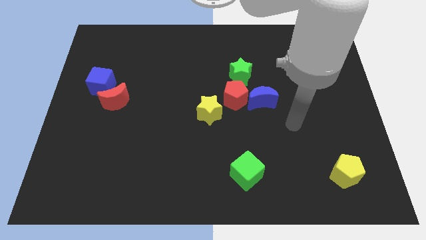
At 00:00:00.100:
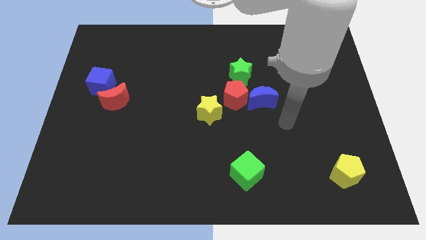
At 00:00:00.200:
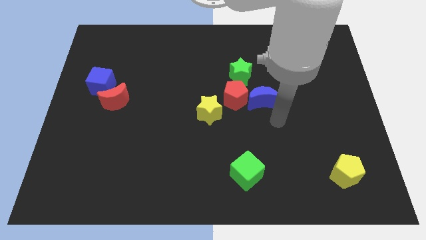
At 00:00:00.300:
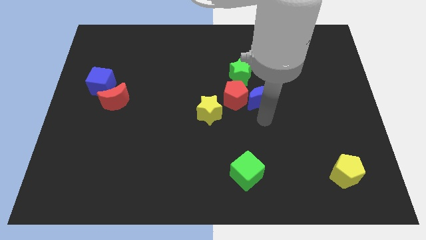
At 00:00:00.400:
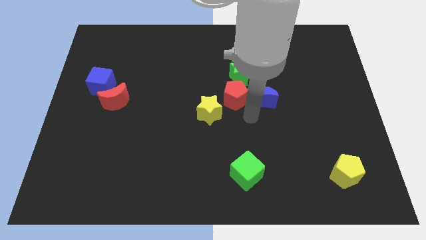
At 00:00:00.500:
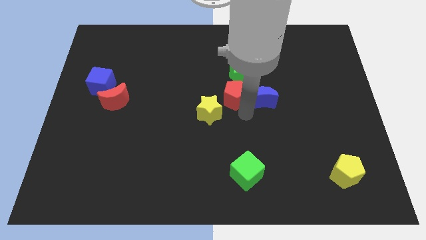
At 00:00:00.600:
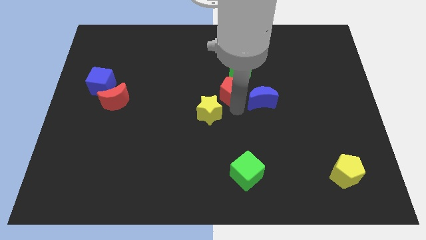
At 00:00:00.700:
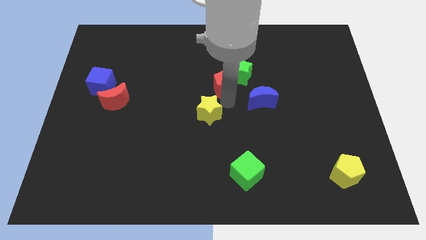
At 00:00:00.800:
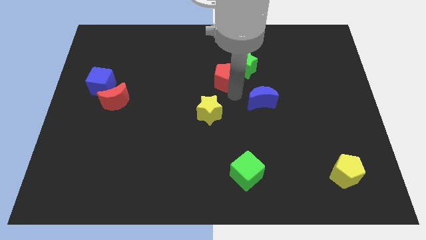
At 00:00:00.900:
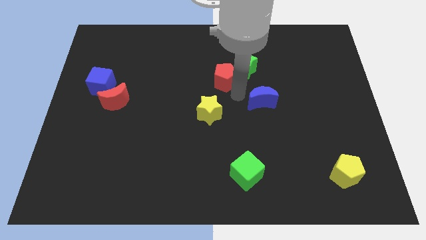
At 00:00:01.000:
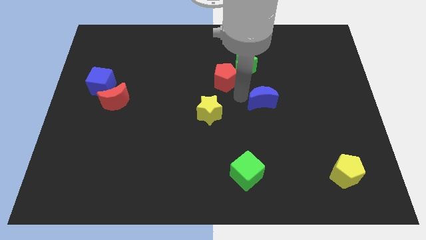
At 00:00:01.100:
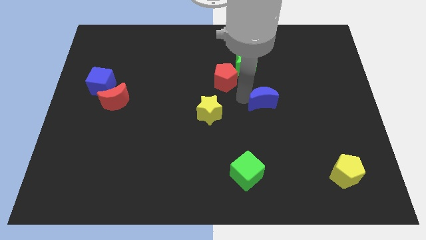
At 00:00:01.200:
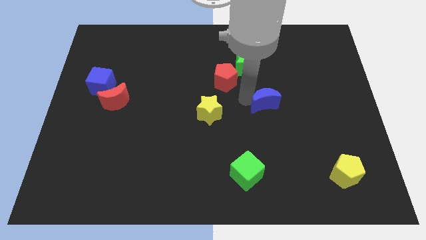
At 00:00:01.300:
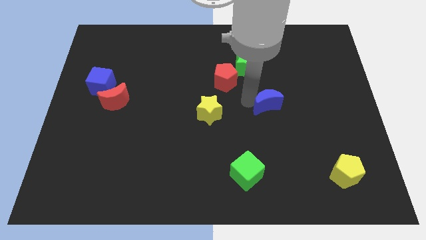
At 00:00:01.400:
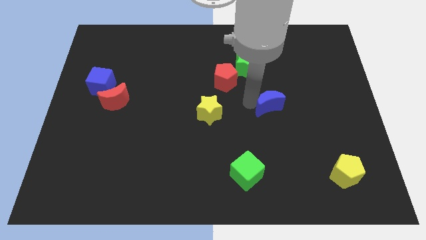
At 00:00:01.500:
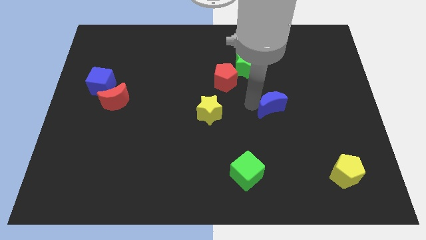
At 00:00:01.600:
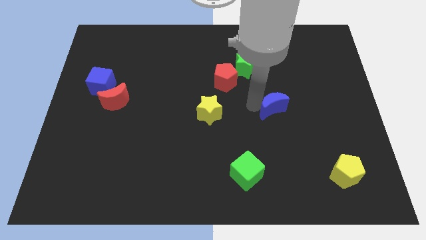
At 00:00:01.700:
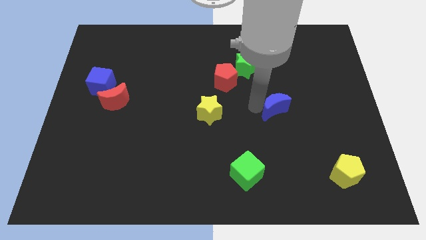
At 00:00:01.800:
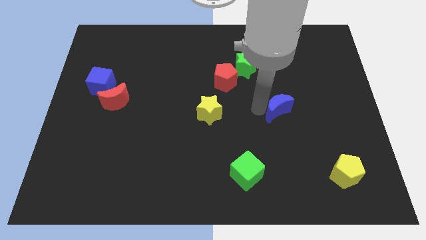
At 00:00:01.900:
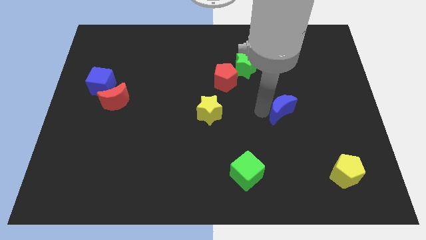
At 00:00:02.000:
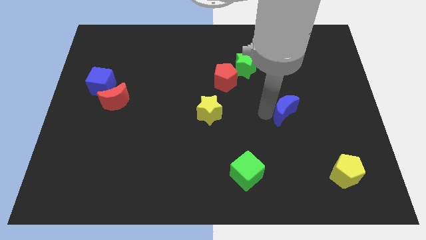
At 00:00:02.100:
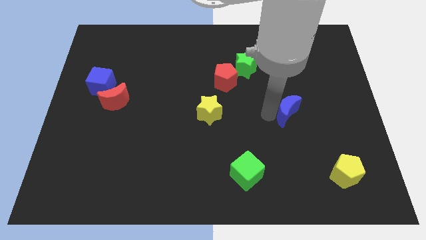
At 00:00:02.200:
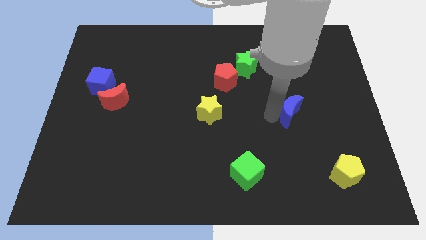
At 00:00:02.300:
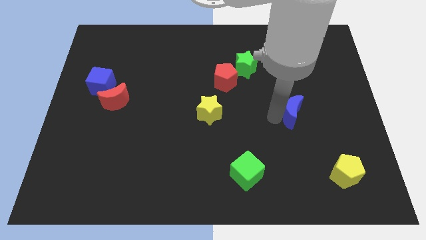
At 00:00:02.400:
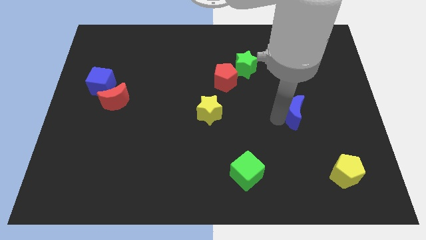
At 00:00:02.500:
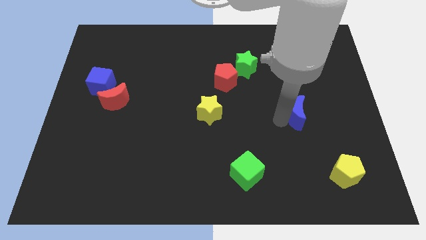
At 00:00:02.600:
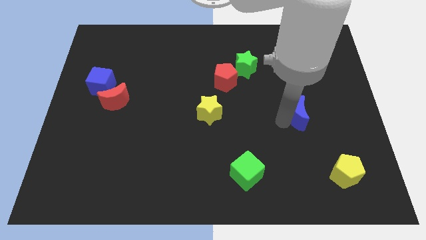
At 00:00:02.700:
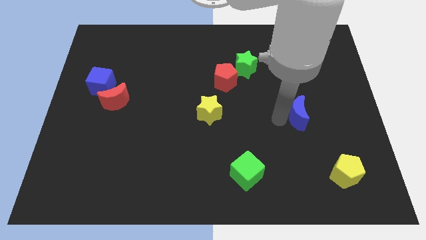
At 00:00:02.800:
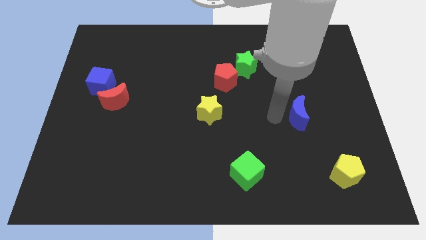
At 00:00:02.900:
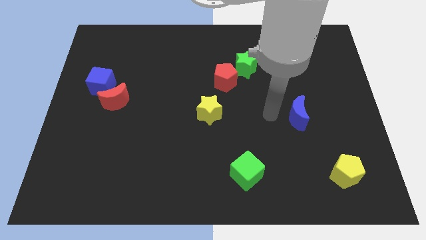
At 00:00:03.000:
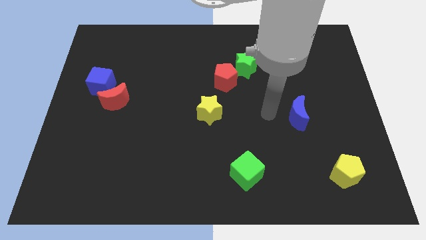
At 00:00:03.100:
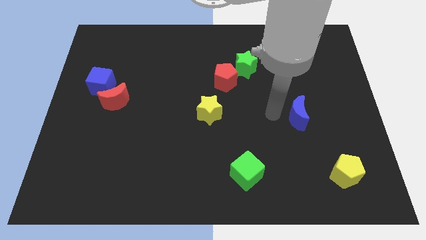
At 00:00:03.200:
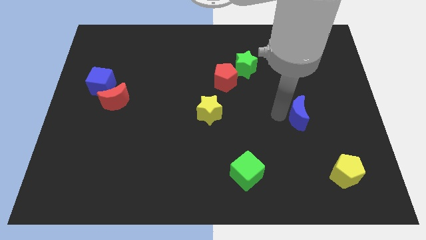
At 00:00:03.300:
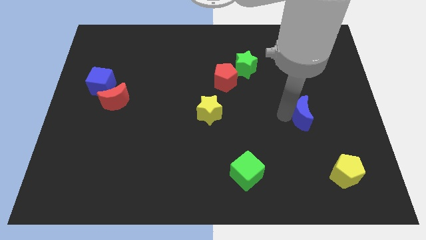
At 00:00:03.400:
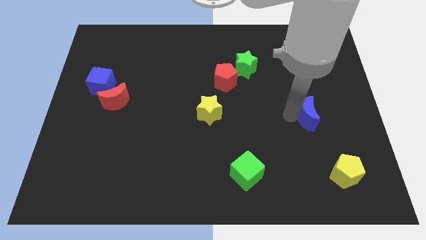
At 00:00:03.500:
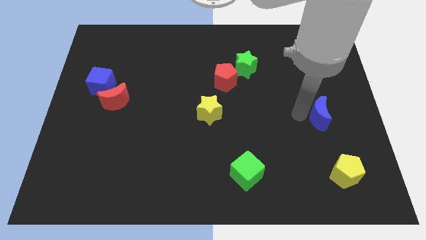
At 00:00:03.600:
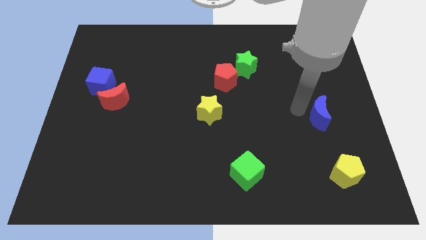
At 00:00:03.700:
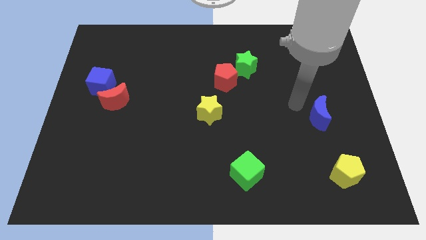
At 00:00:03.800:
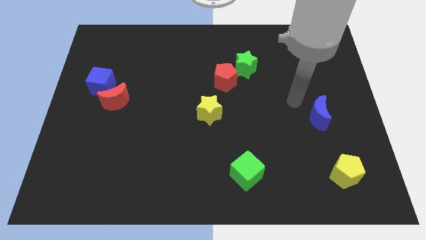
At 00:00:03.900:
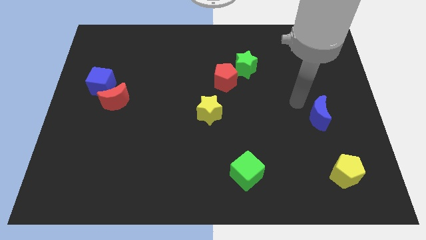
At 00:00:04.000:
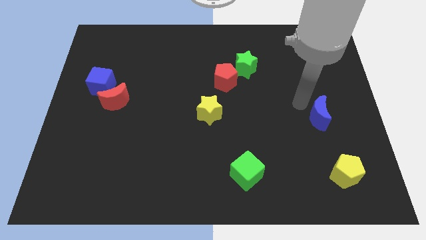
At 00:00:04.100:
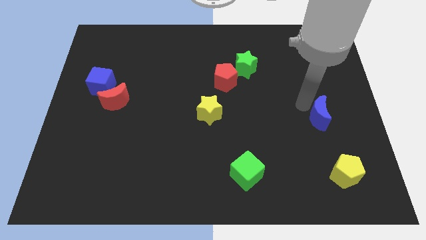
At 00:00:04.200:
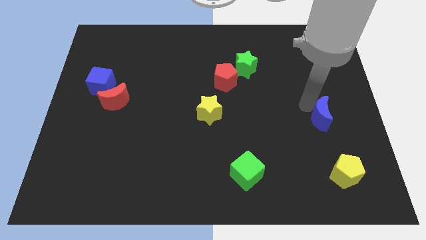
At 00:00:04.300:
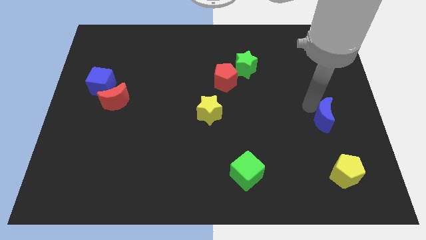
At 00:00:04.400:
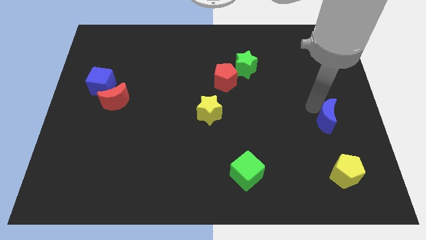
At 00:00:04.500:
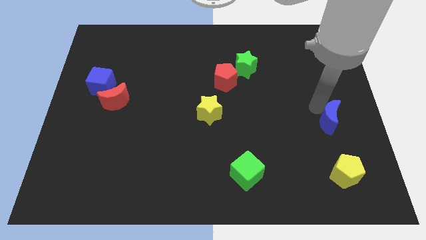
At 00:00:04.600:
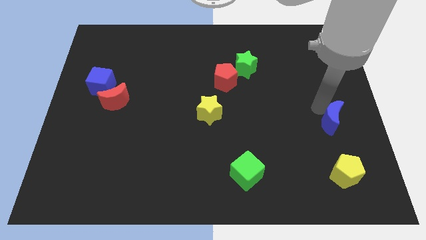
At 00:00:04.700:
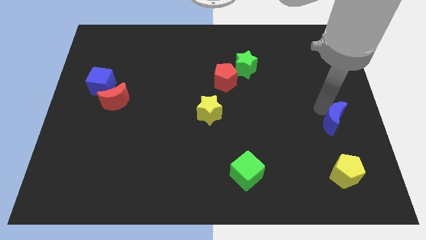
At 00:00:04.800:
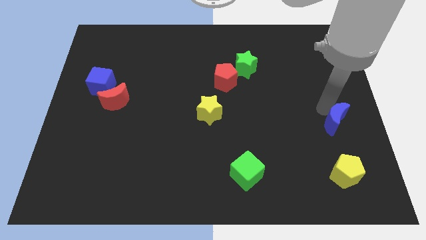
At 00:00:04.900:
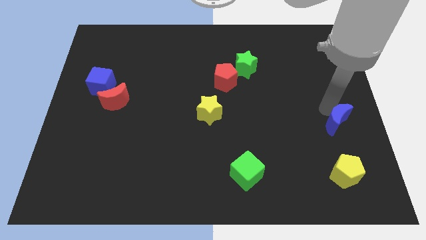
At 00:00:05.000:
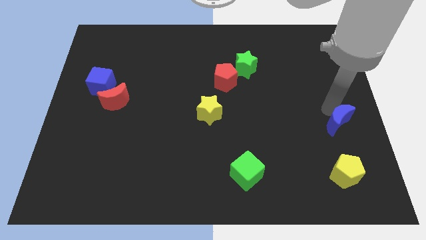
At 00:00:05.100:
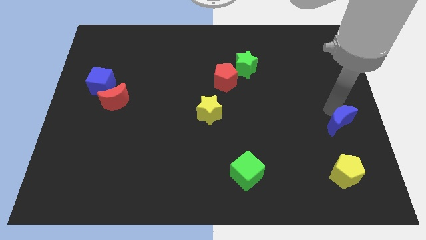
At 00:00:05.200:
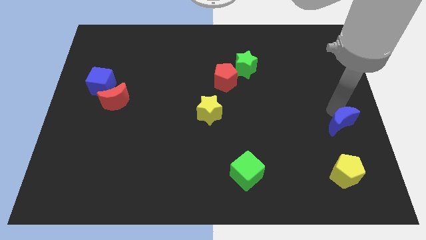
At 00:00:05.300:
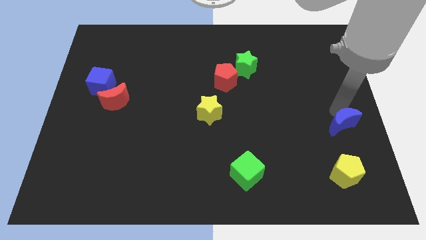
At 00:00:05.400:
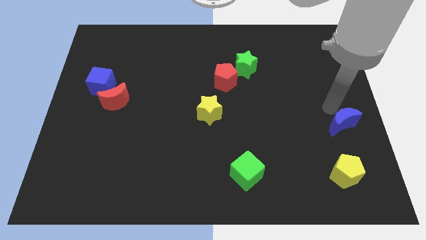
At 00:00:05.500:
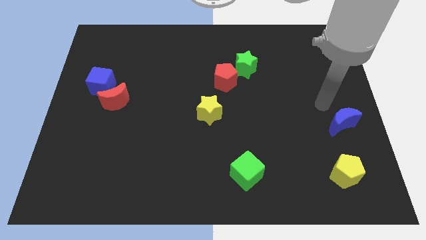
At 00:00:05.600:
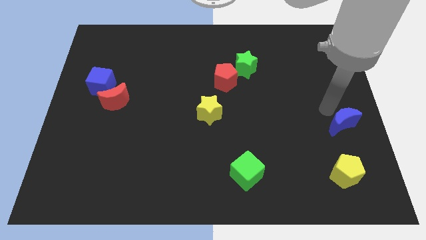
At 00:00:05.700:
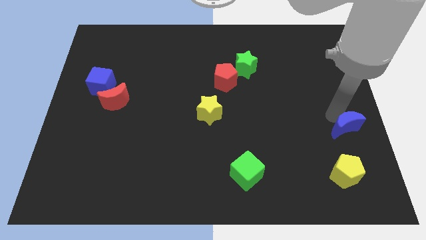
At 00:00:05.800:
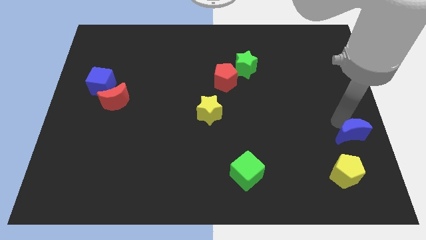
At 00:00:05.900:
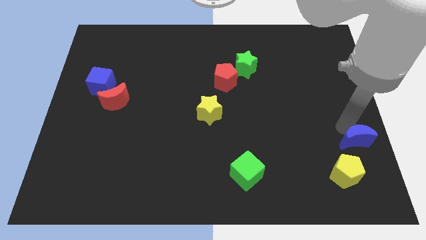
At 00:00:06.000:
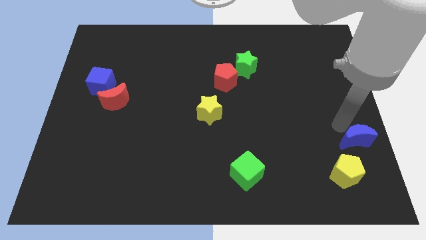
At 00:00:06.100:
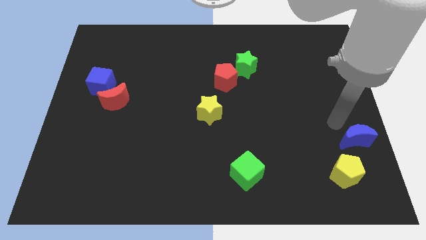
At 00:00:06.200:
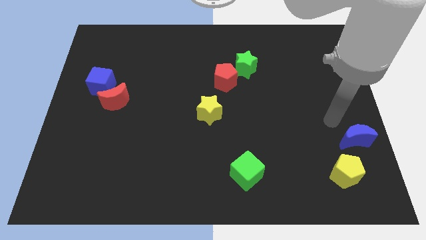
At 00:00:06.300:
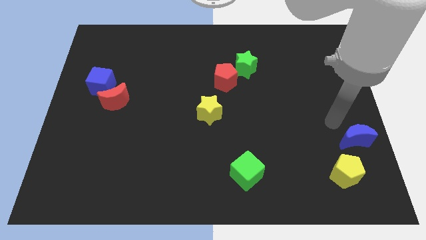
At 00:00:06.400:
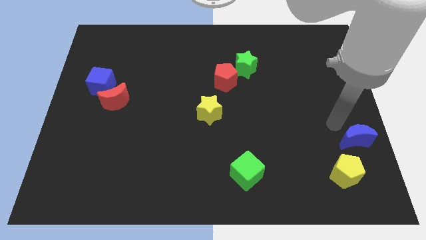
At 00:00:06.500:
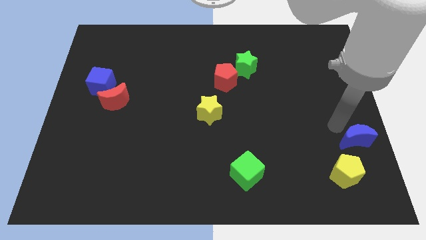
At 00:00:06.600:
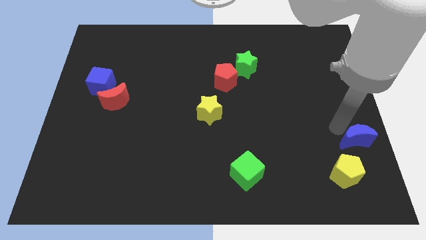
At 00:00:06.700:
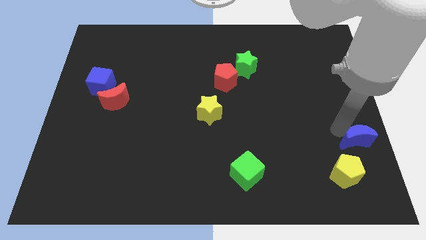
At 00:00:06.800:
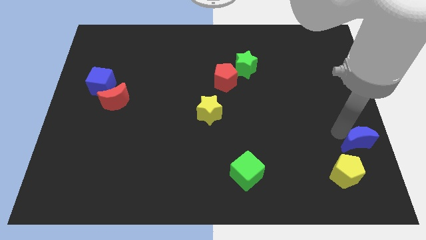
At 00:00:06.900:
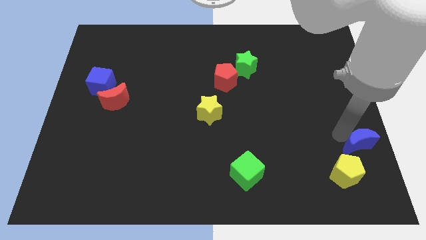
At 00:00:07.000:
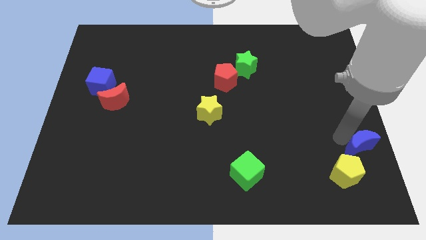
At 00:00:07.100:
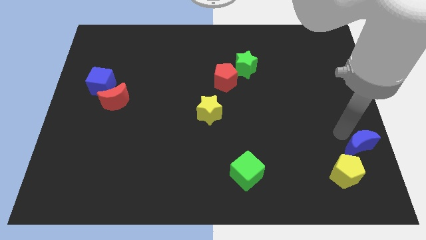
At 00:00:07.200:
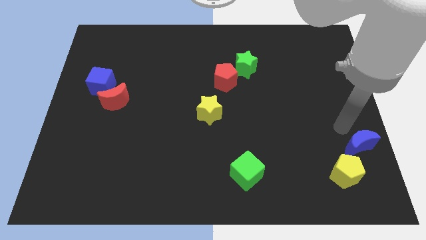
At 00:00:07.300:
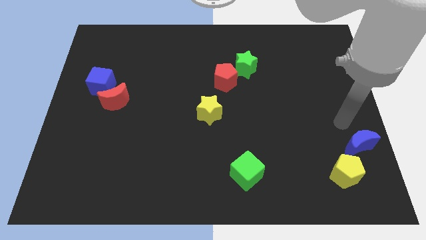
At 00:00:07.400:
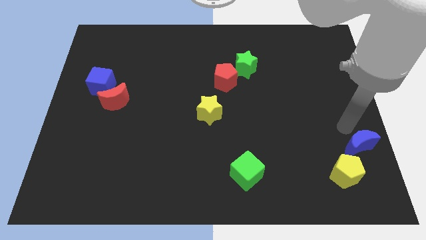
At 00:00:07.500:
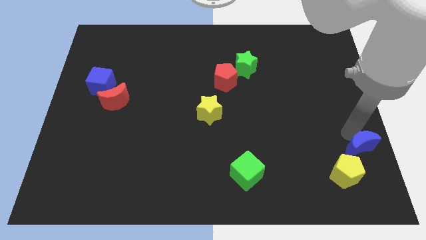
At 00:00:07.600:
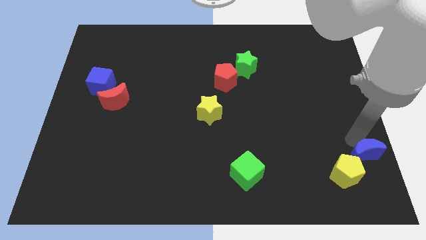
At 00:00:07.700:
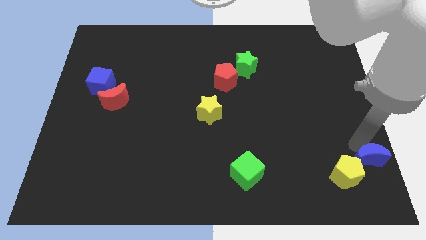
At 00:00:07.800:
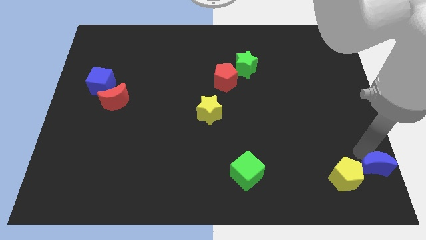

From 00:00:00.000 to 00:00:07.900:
move the blue moon to the bottom right corner
